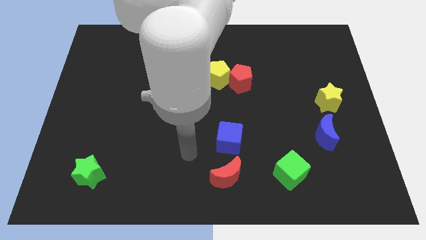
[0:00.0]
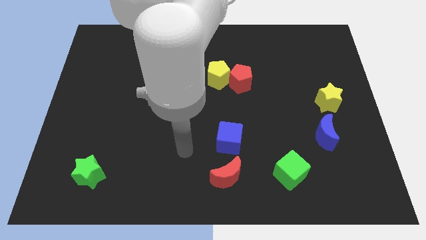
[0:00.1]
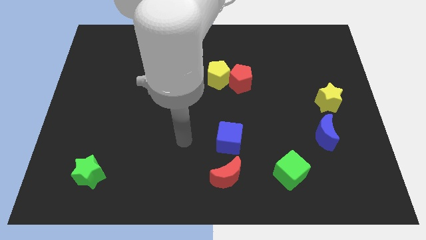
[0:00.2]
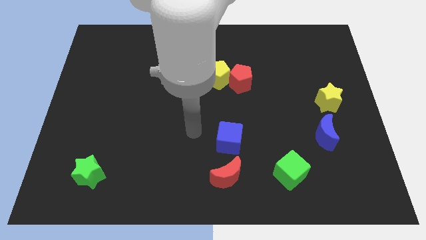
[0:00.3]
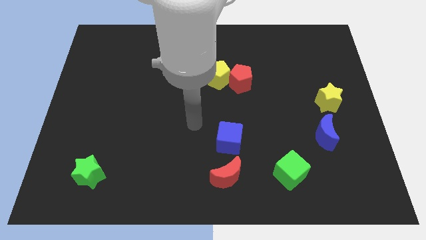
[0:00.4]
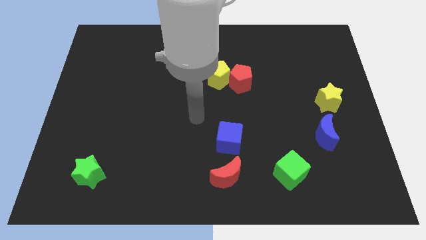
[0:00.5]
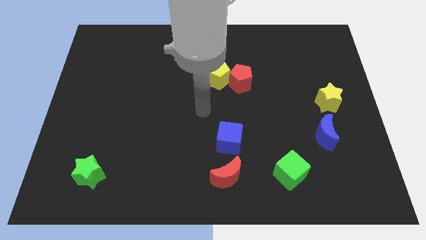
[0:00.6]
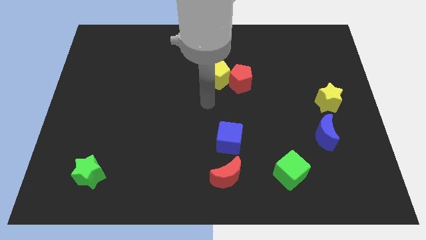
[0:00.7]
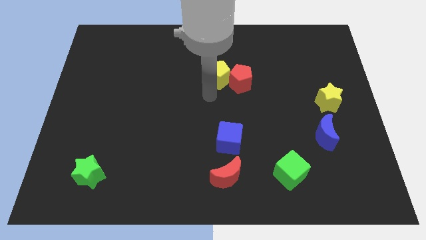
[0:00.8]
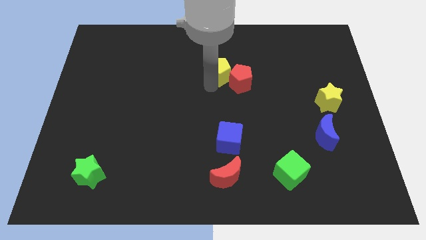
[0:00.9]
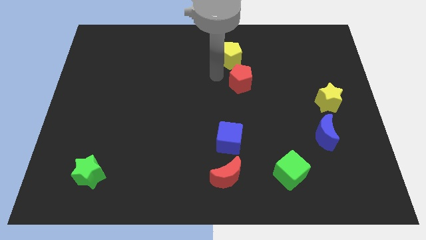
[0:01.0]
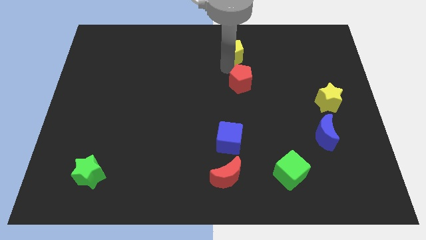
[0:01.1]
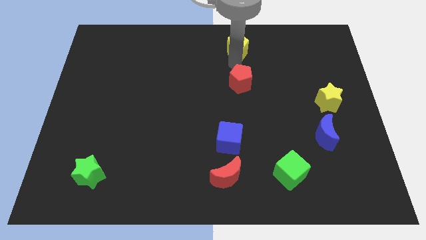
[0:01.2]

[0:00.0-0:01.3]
move the red pentagon away from the yellow pentagon

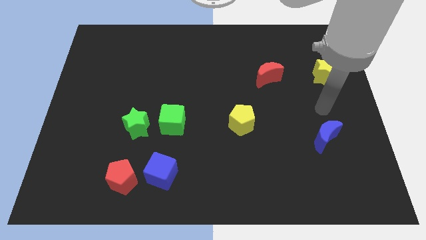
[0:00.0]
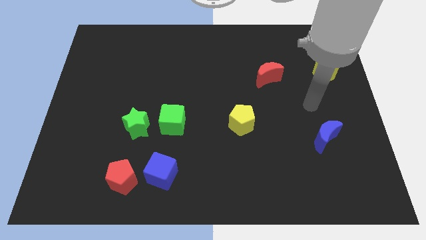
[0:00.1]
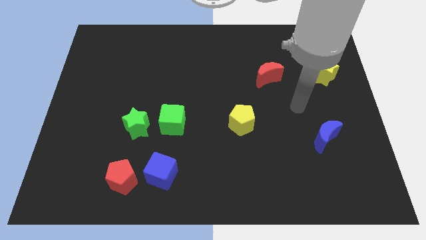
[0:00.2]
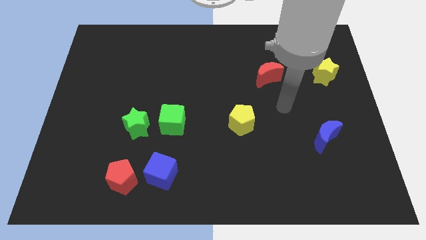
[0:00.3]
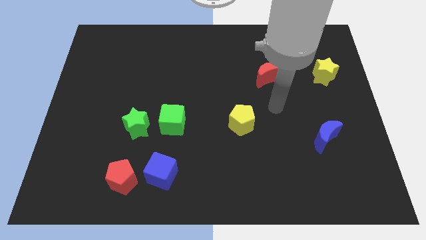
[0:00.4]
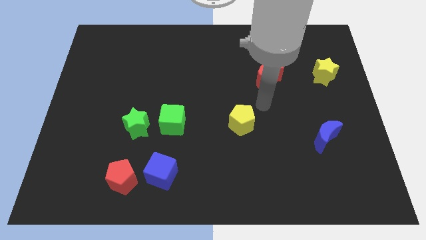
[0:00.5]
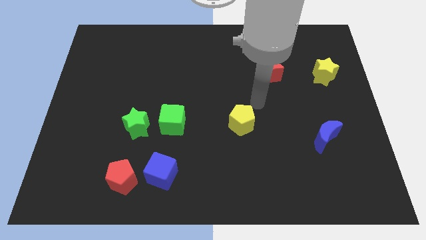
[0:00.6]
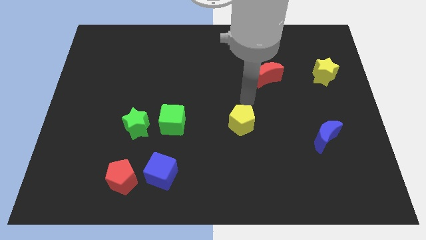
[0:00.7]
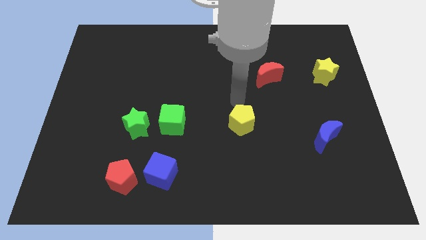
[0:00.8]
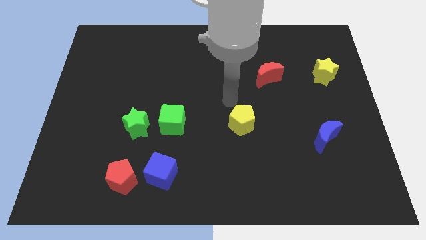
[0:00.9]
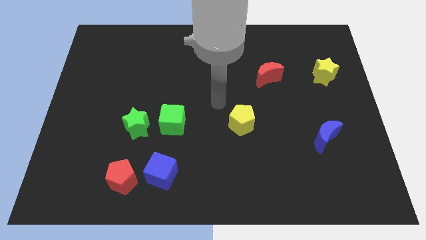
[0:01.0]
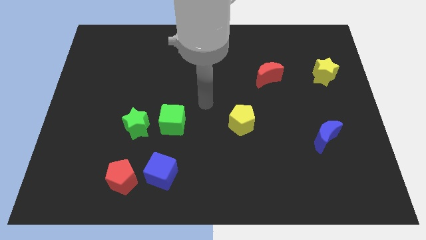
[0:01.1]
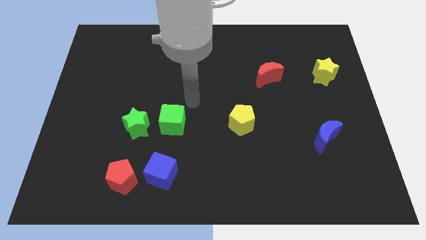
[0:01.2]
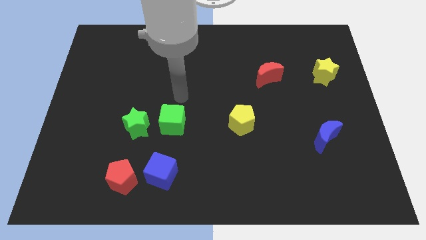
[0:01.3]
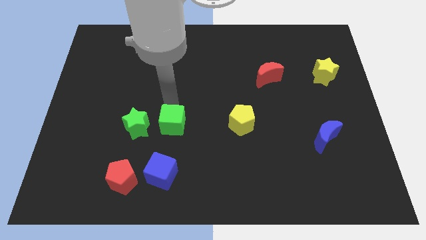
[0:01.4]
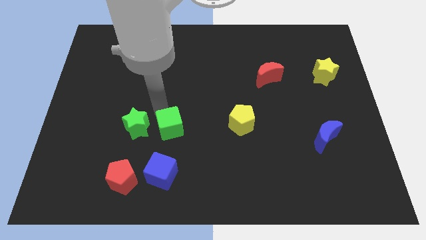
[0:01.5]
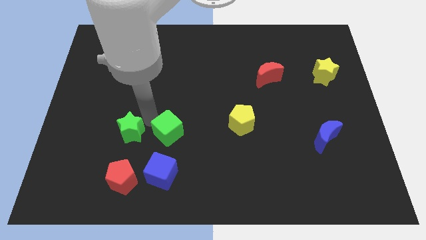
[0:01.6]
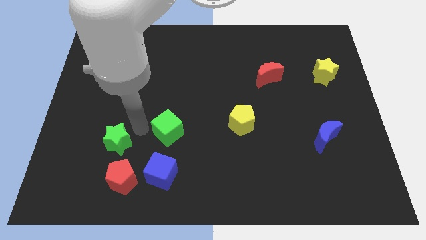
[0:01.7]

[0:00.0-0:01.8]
move the green cube away from the green star

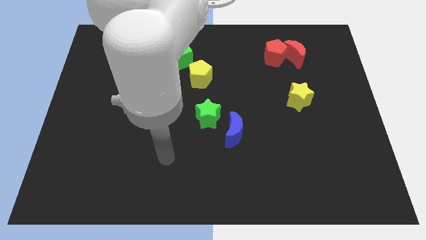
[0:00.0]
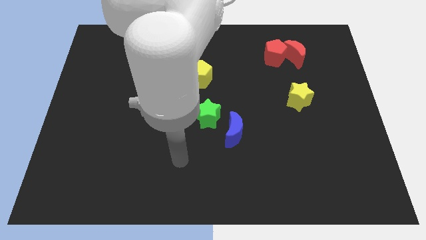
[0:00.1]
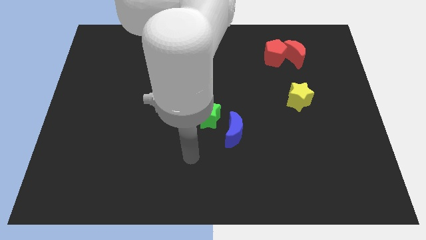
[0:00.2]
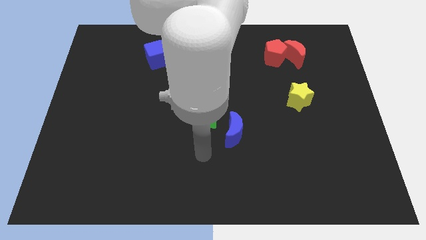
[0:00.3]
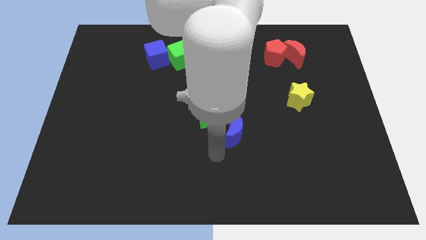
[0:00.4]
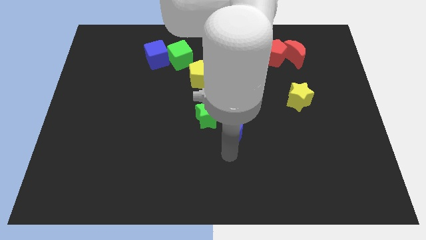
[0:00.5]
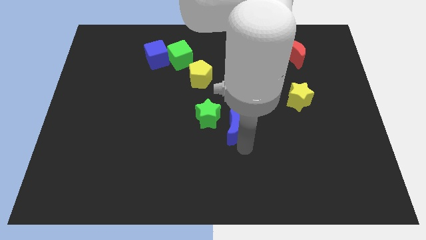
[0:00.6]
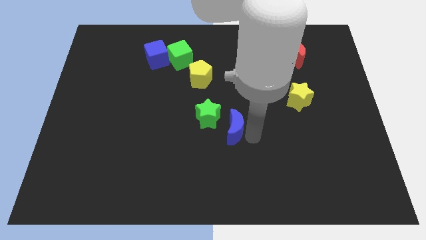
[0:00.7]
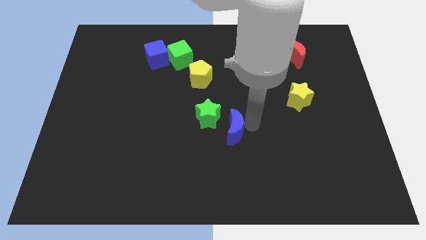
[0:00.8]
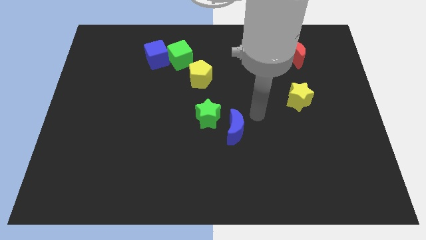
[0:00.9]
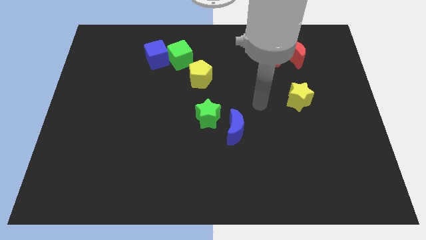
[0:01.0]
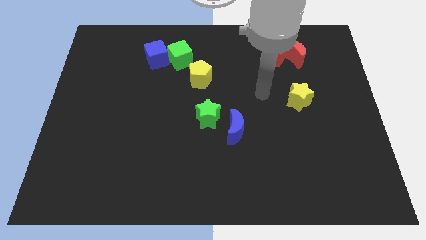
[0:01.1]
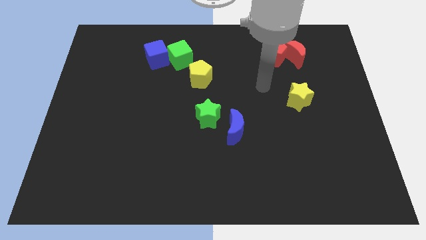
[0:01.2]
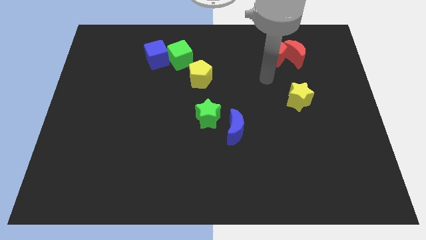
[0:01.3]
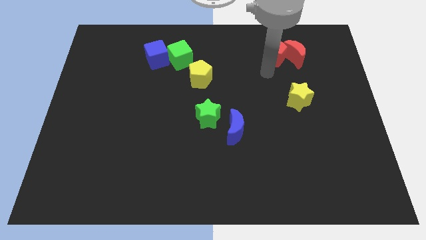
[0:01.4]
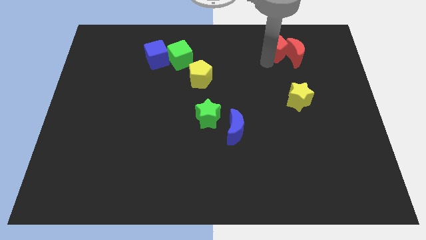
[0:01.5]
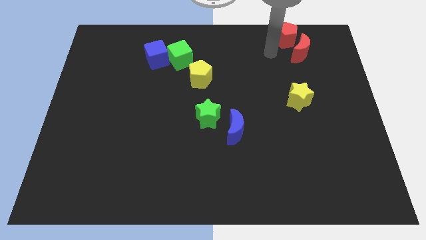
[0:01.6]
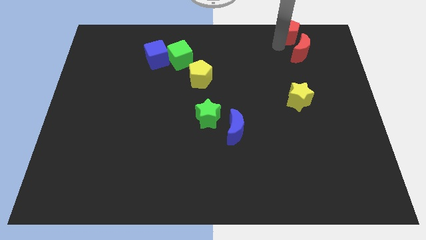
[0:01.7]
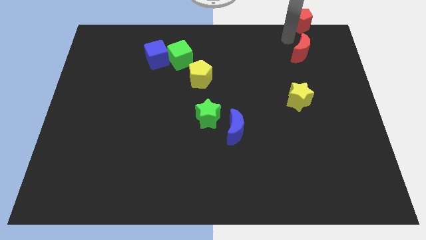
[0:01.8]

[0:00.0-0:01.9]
separate the red moon from the red pentagon

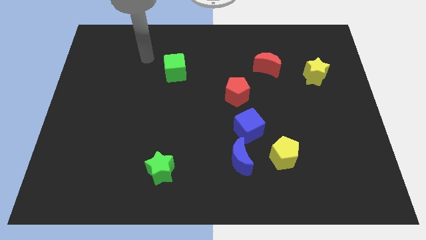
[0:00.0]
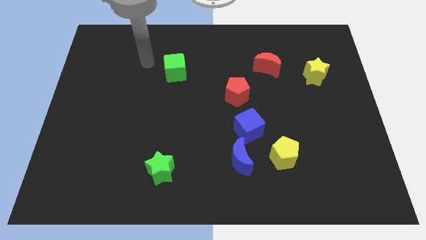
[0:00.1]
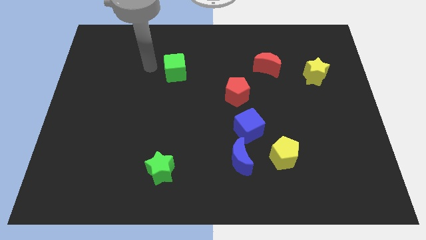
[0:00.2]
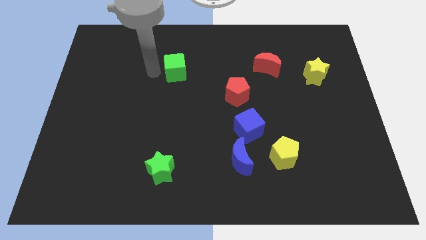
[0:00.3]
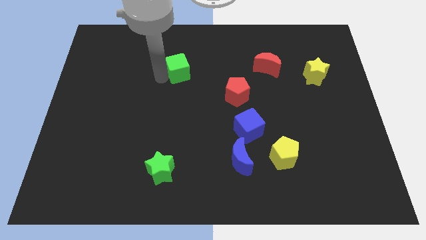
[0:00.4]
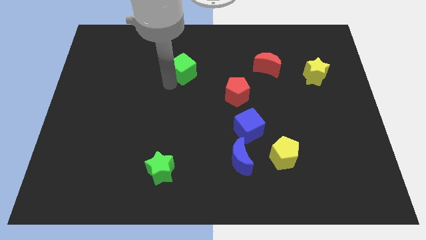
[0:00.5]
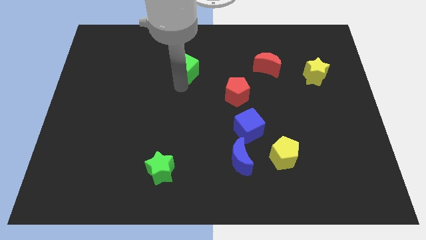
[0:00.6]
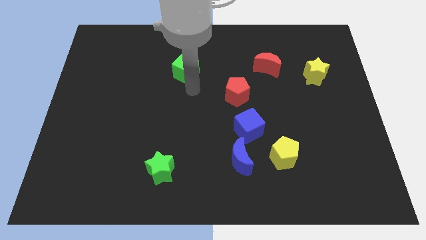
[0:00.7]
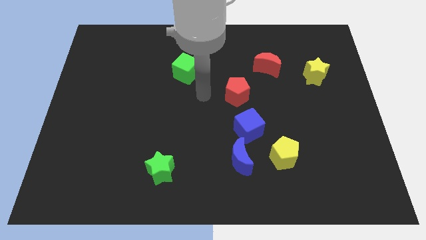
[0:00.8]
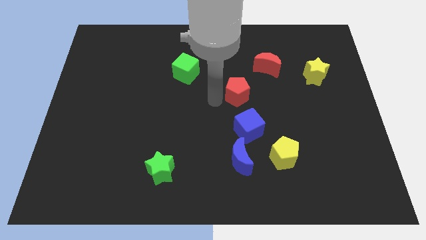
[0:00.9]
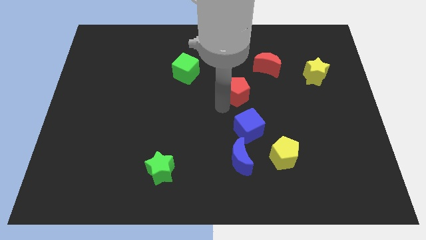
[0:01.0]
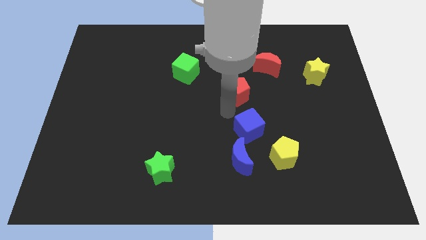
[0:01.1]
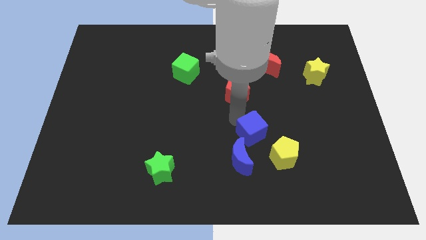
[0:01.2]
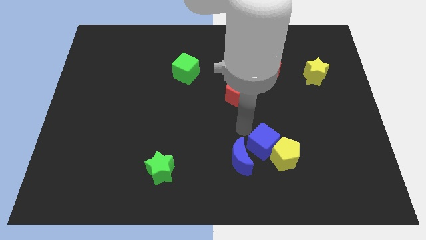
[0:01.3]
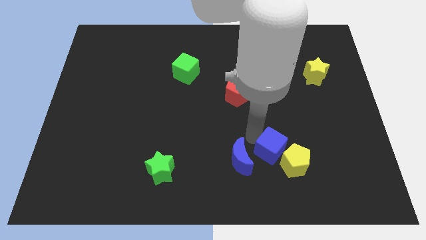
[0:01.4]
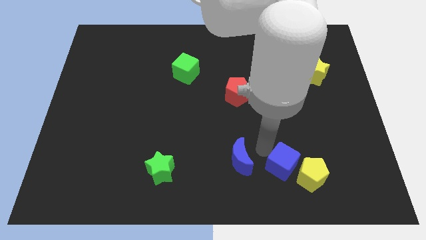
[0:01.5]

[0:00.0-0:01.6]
move the blue moon away from the blue cube and yellow pentagon

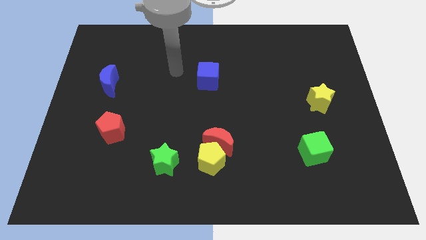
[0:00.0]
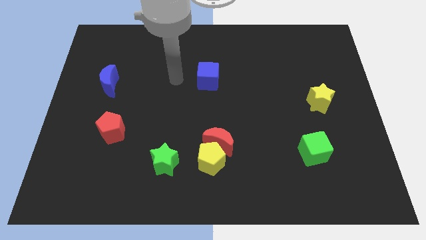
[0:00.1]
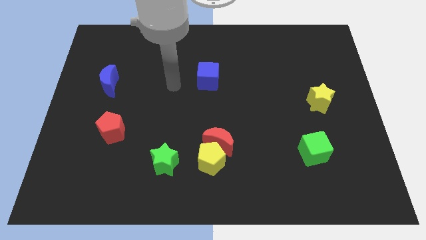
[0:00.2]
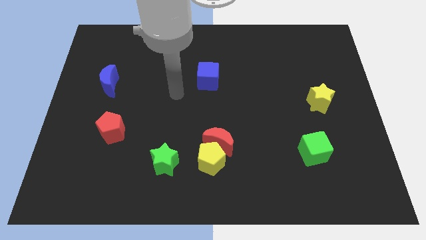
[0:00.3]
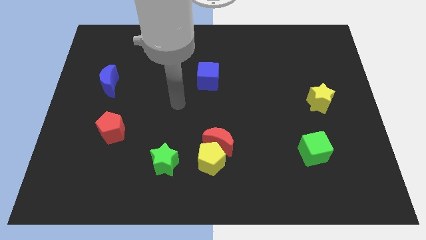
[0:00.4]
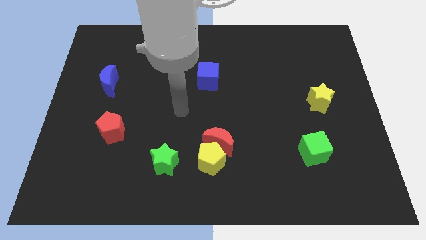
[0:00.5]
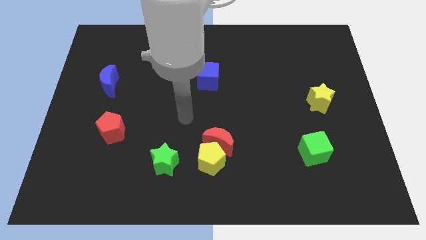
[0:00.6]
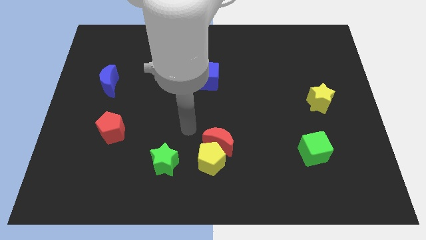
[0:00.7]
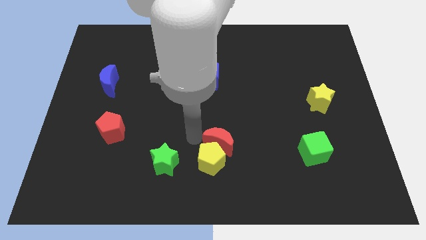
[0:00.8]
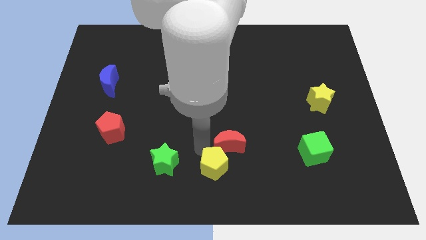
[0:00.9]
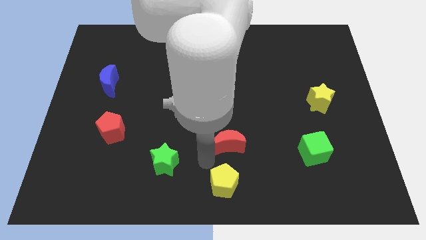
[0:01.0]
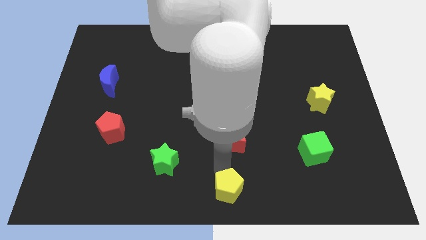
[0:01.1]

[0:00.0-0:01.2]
pull the red moon apart from the yellow pentagon

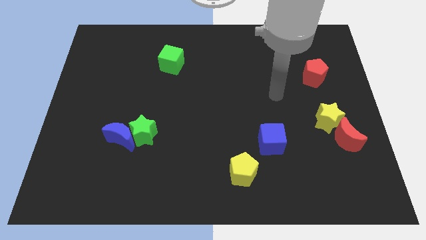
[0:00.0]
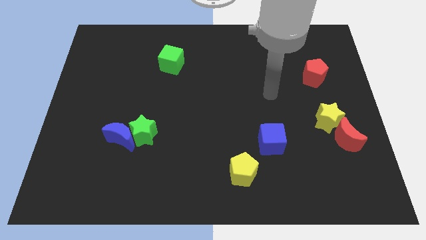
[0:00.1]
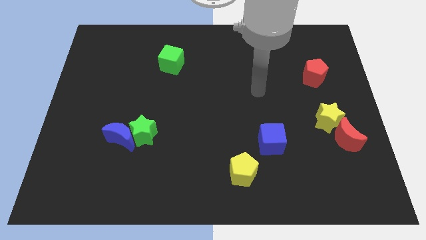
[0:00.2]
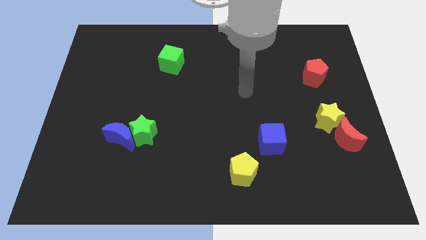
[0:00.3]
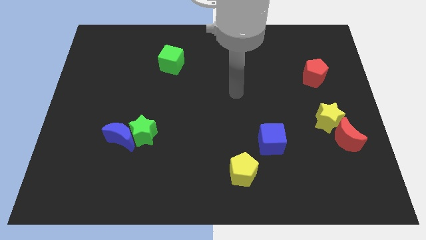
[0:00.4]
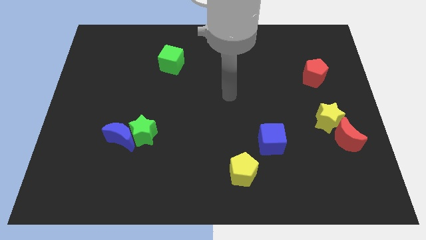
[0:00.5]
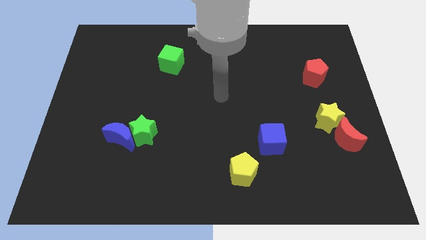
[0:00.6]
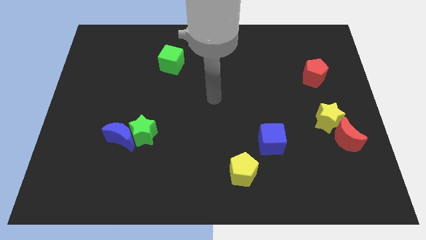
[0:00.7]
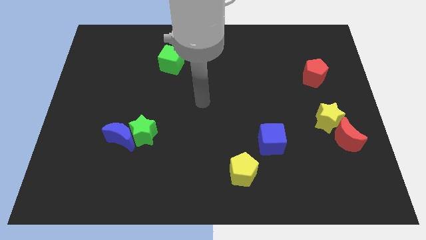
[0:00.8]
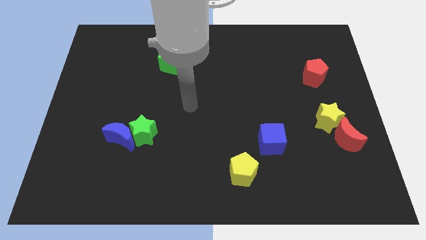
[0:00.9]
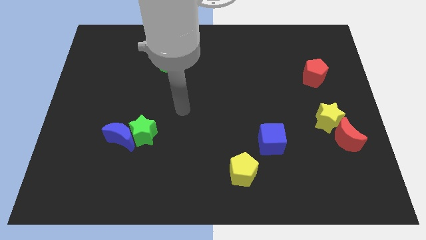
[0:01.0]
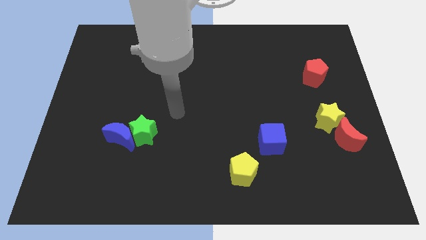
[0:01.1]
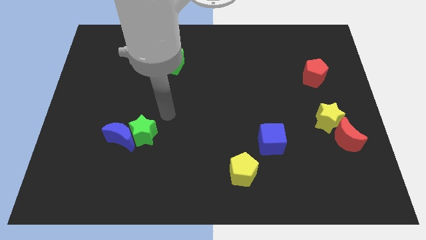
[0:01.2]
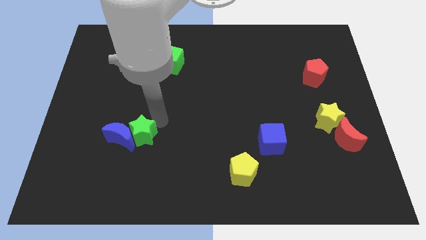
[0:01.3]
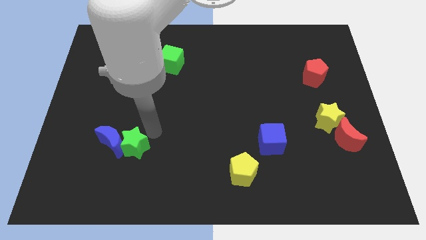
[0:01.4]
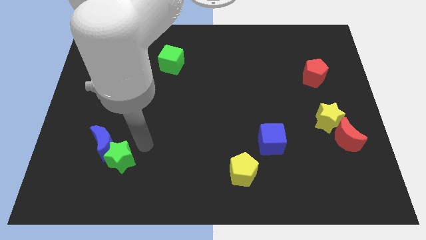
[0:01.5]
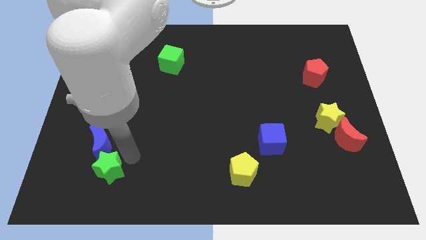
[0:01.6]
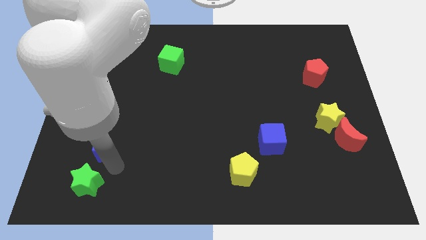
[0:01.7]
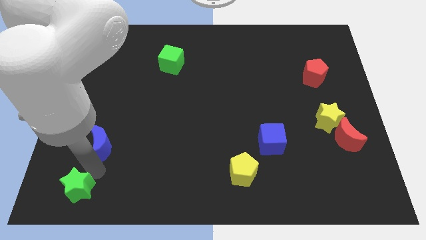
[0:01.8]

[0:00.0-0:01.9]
pull the blue moon apart from the green star
